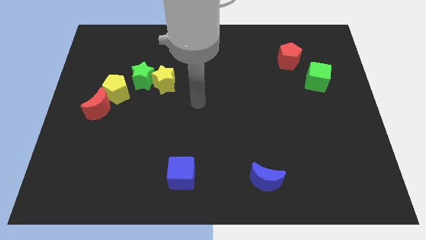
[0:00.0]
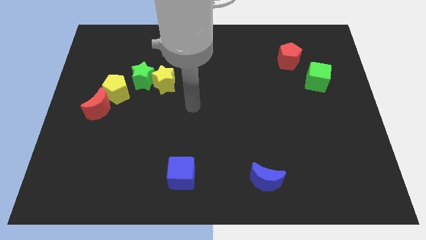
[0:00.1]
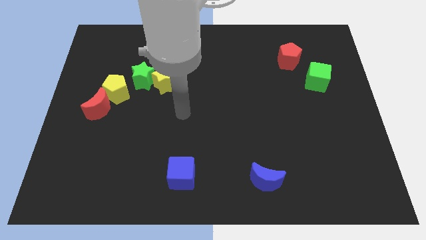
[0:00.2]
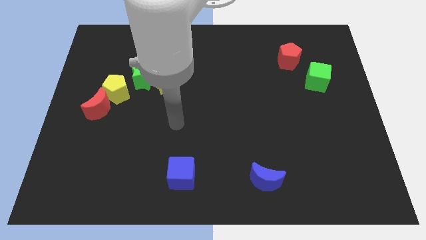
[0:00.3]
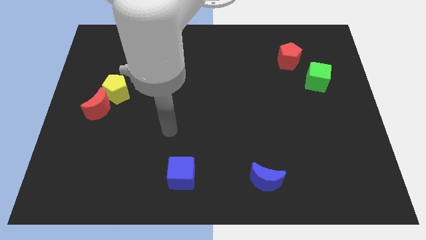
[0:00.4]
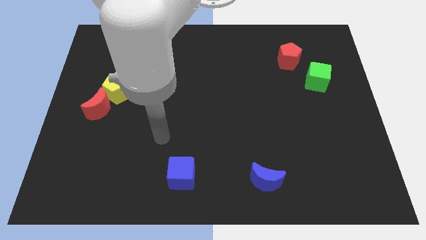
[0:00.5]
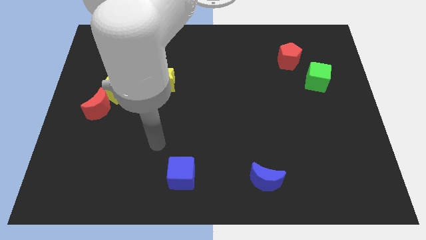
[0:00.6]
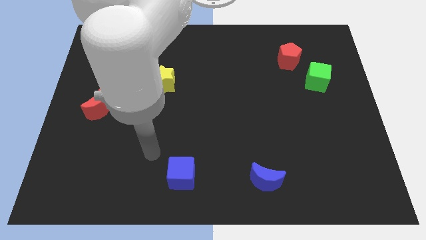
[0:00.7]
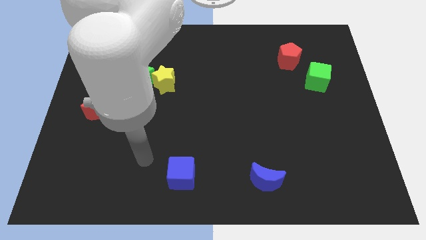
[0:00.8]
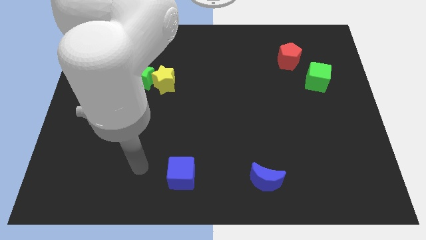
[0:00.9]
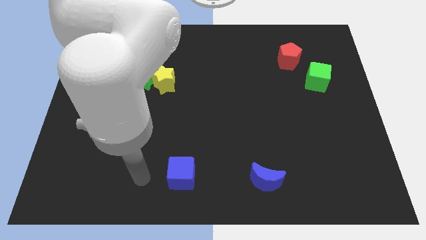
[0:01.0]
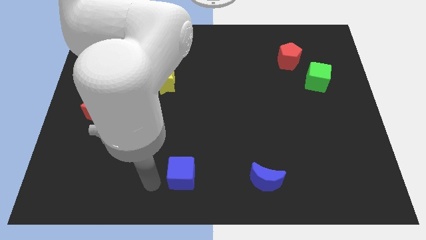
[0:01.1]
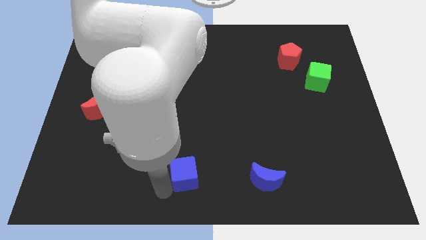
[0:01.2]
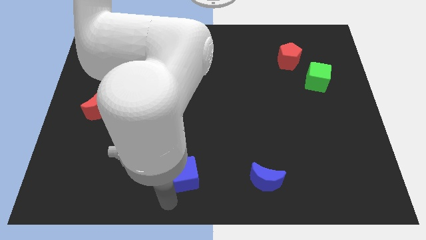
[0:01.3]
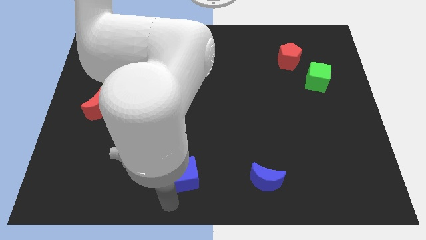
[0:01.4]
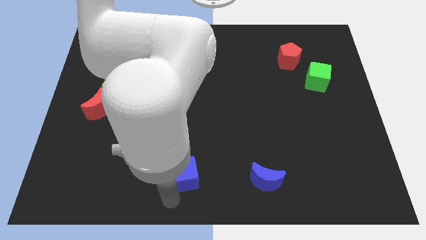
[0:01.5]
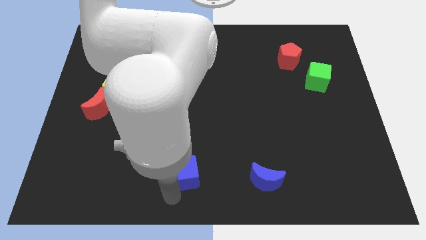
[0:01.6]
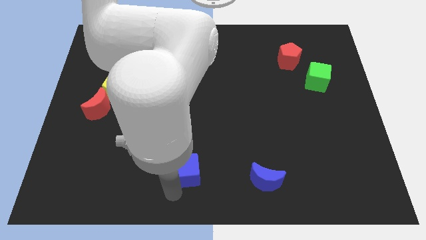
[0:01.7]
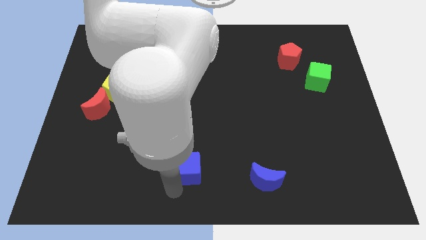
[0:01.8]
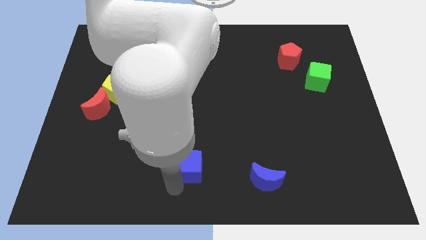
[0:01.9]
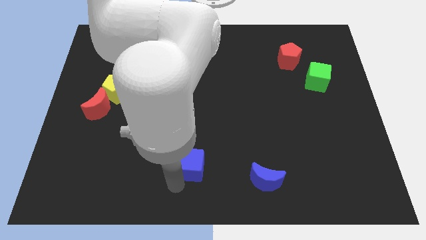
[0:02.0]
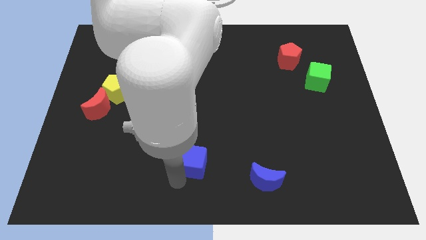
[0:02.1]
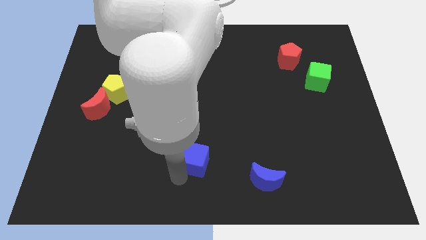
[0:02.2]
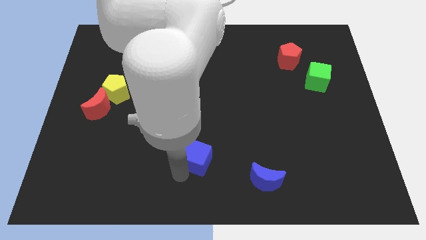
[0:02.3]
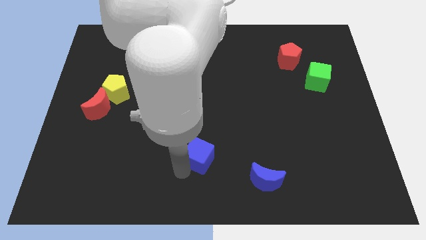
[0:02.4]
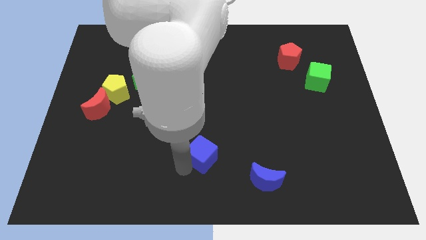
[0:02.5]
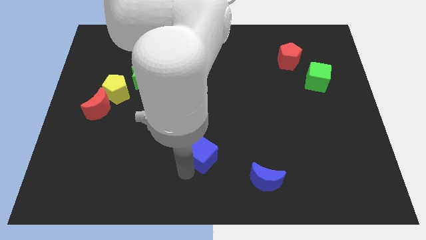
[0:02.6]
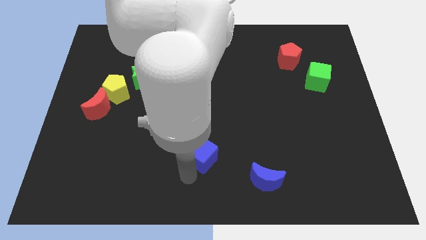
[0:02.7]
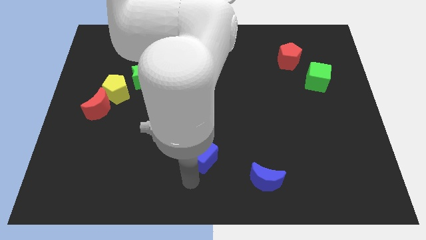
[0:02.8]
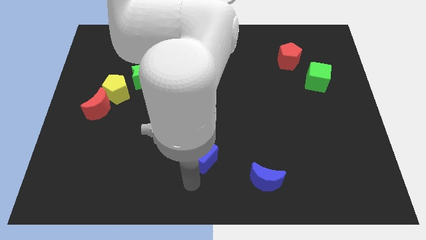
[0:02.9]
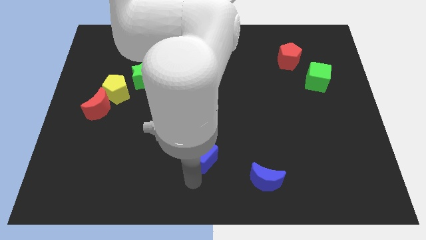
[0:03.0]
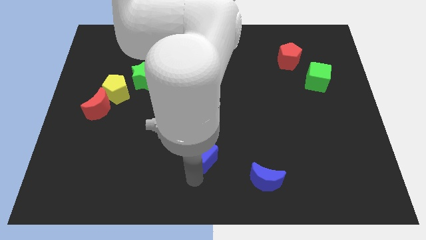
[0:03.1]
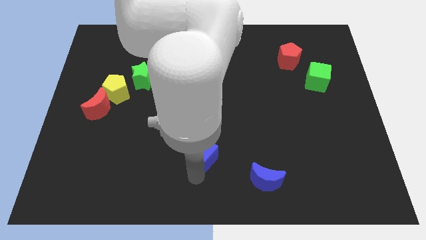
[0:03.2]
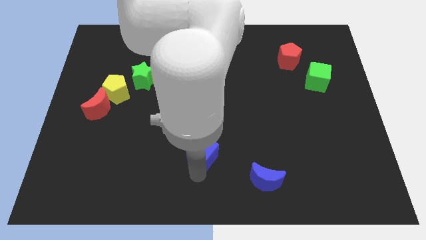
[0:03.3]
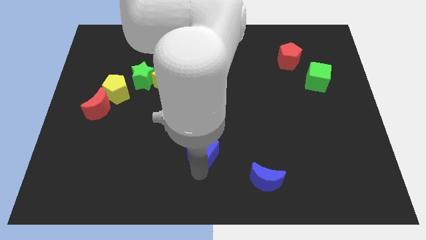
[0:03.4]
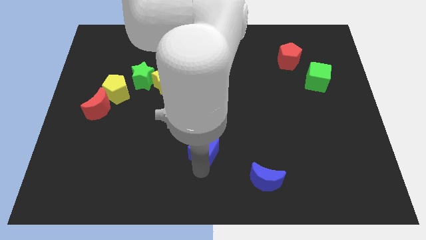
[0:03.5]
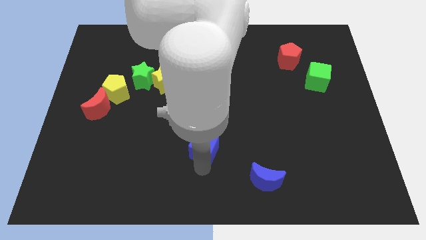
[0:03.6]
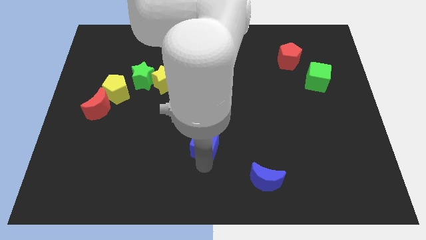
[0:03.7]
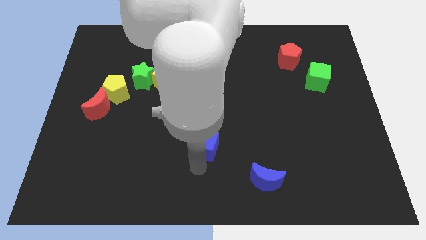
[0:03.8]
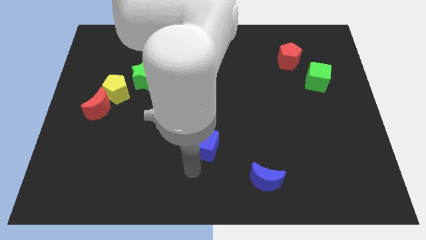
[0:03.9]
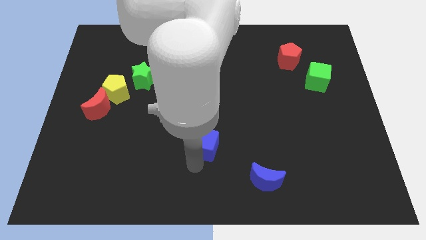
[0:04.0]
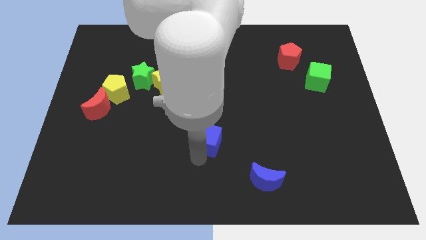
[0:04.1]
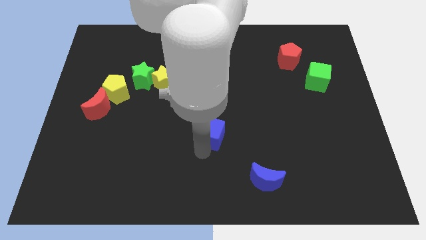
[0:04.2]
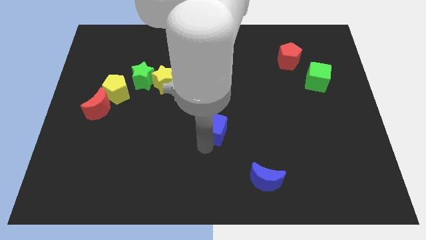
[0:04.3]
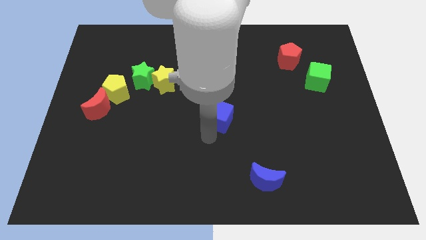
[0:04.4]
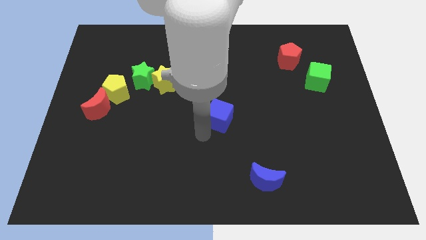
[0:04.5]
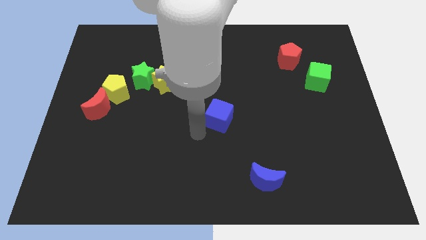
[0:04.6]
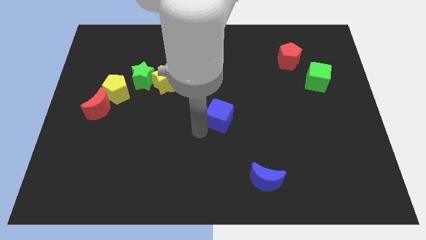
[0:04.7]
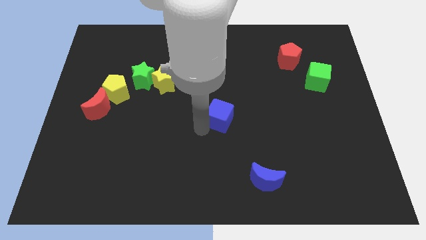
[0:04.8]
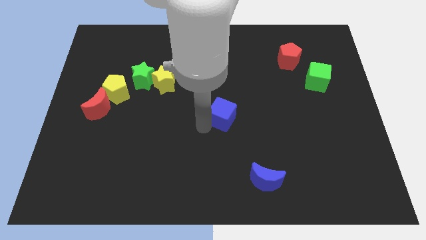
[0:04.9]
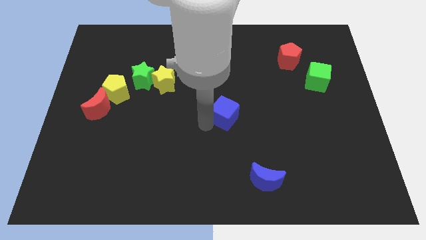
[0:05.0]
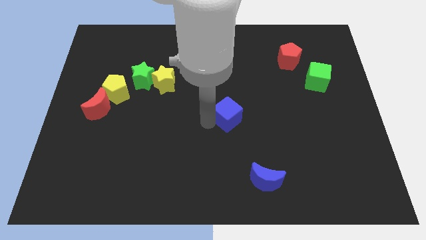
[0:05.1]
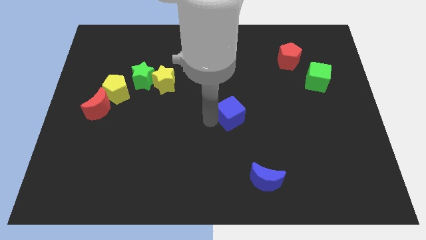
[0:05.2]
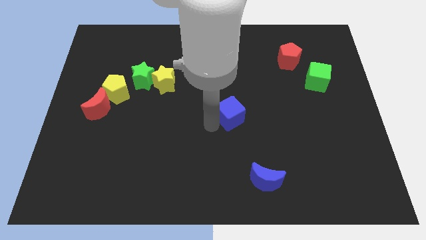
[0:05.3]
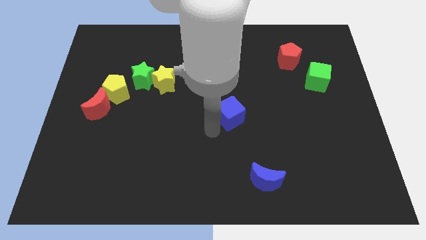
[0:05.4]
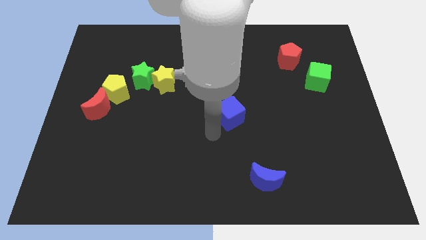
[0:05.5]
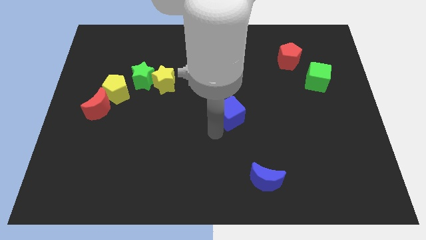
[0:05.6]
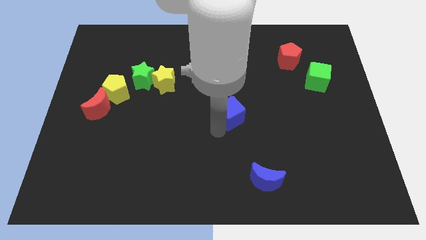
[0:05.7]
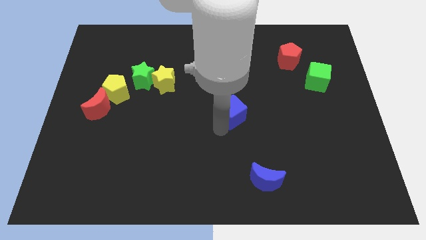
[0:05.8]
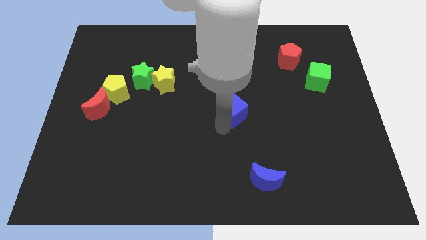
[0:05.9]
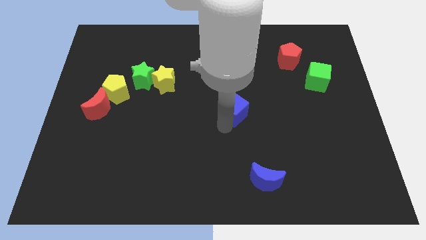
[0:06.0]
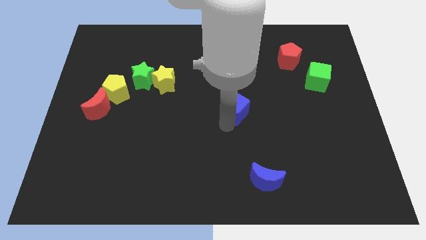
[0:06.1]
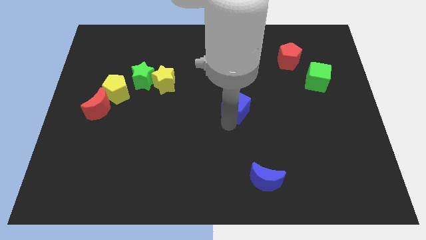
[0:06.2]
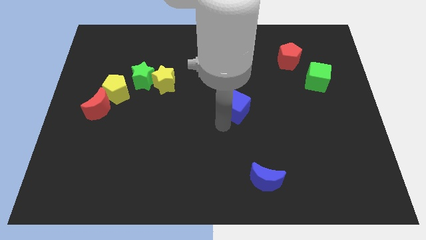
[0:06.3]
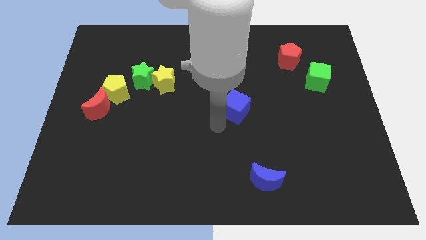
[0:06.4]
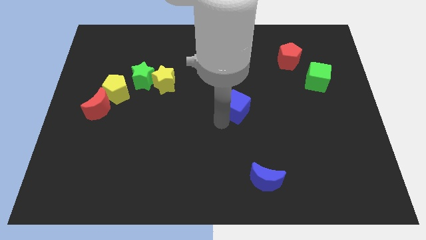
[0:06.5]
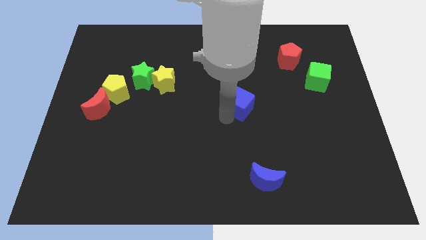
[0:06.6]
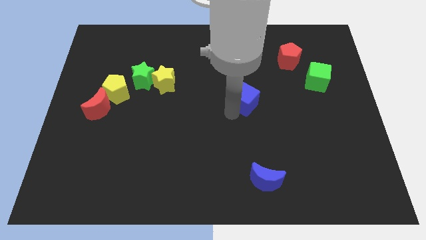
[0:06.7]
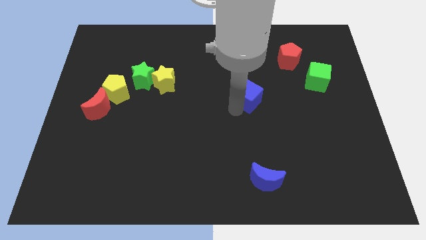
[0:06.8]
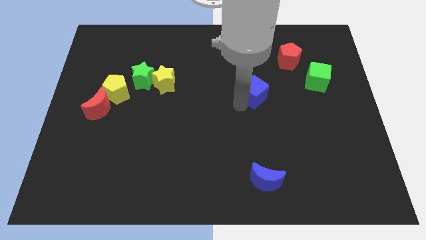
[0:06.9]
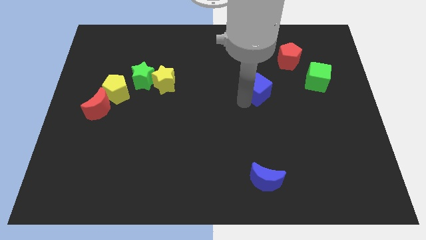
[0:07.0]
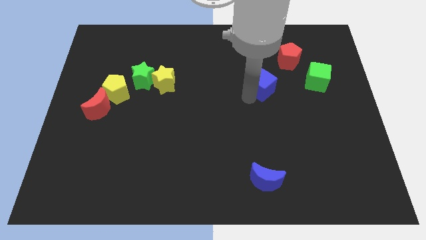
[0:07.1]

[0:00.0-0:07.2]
push the blue cube left of the green cube
